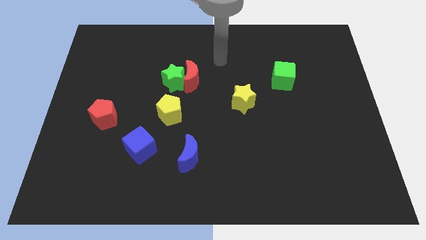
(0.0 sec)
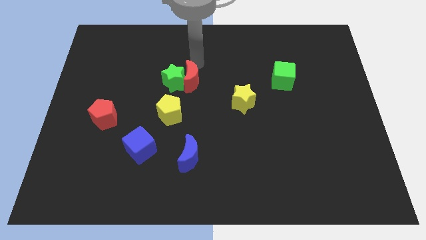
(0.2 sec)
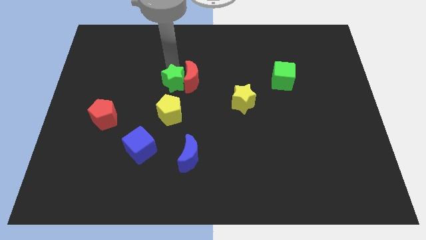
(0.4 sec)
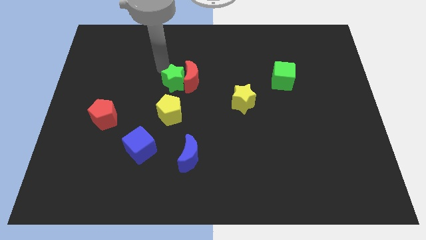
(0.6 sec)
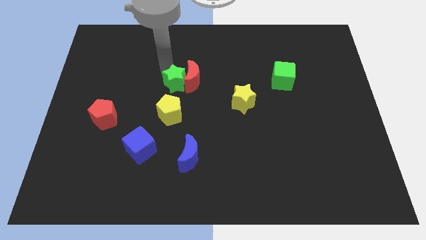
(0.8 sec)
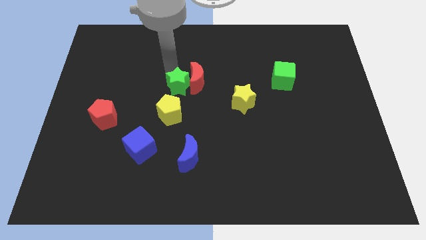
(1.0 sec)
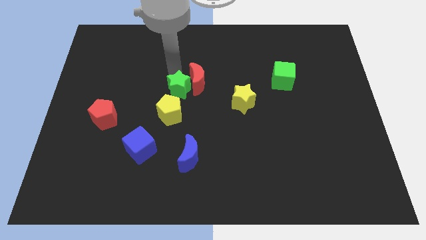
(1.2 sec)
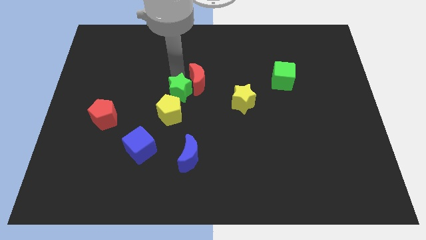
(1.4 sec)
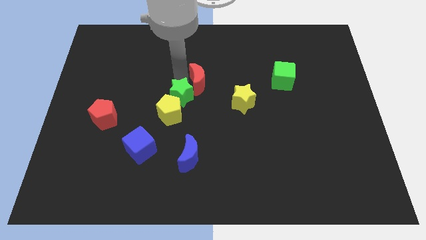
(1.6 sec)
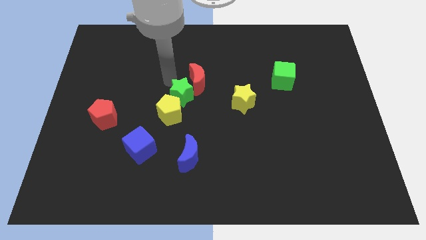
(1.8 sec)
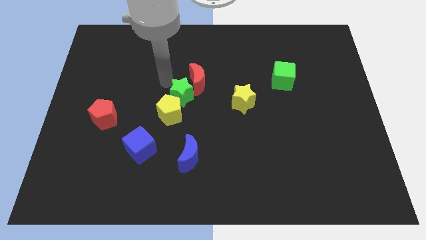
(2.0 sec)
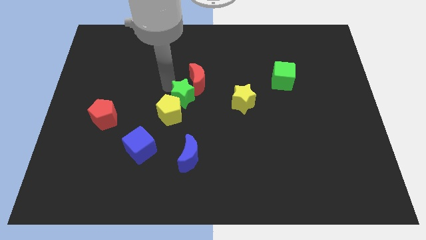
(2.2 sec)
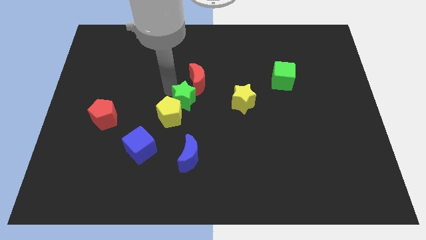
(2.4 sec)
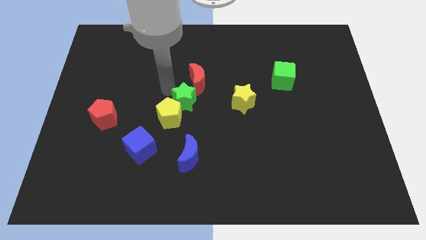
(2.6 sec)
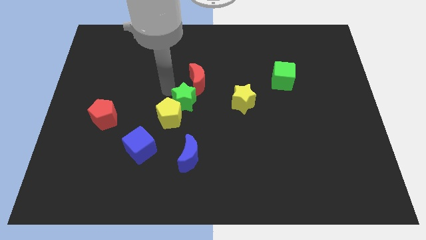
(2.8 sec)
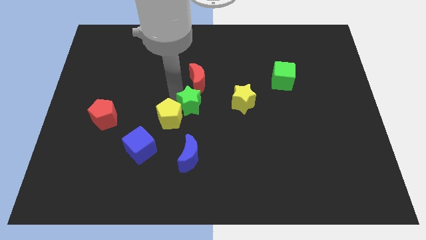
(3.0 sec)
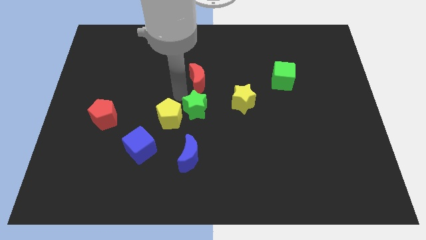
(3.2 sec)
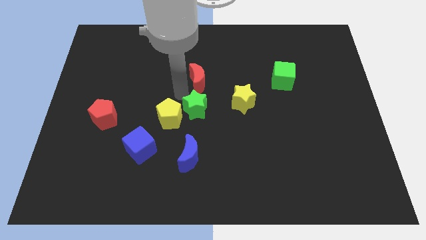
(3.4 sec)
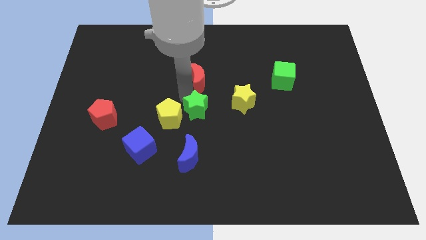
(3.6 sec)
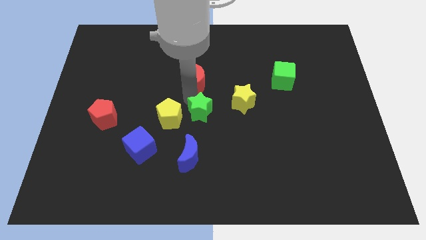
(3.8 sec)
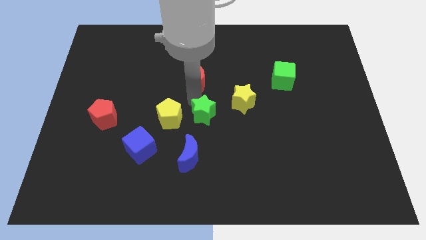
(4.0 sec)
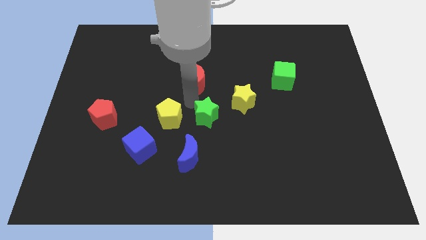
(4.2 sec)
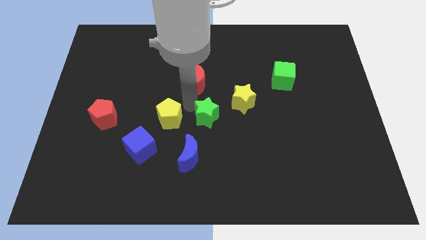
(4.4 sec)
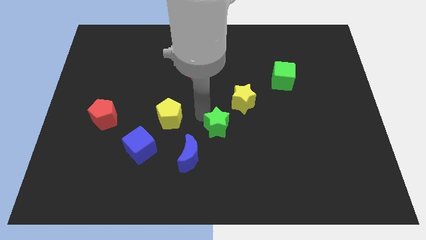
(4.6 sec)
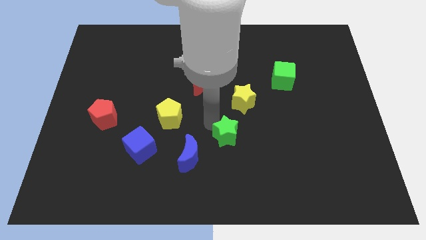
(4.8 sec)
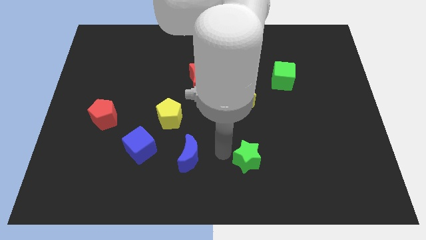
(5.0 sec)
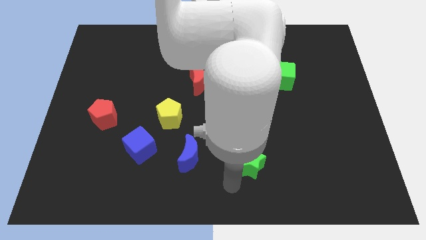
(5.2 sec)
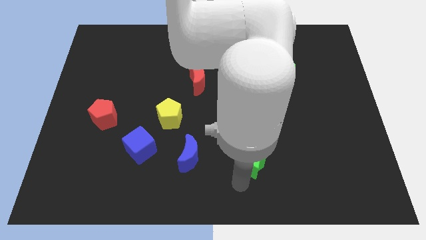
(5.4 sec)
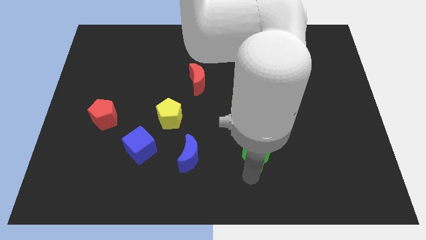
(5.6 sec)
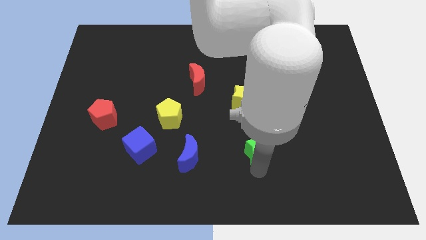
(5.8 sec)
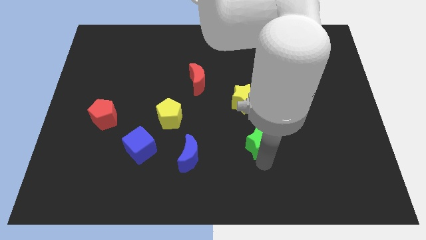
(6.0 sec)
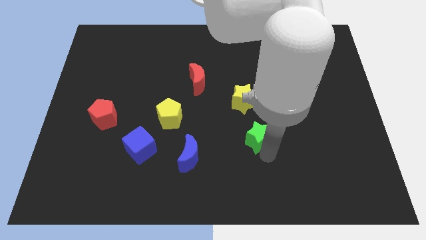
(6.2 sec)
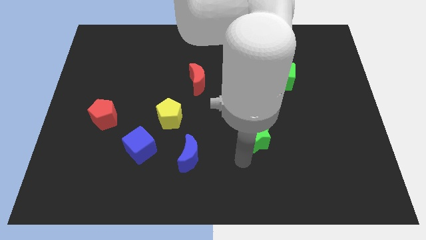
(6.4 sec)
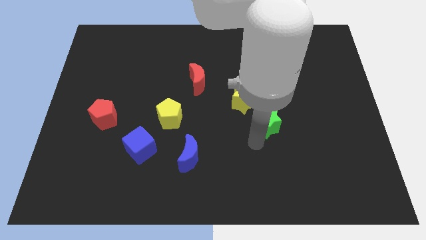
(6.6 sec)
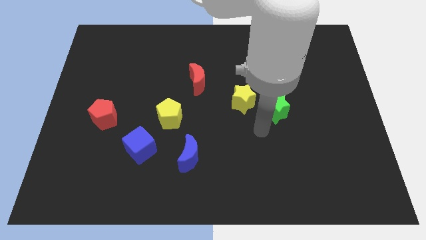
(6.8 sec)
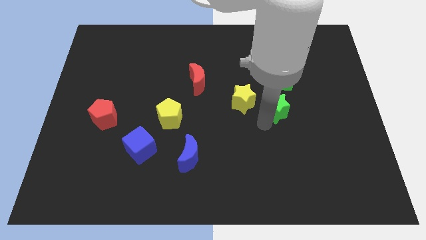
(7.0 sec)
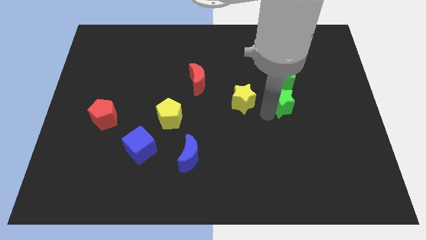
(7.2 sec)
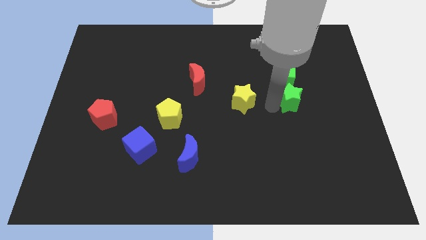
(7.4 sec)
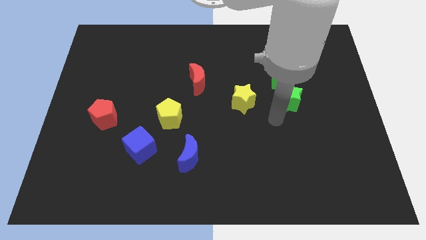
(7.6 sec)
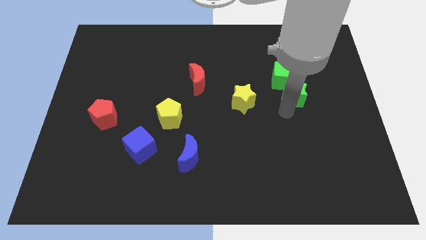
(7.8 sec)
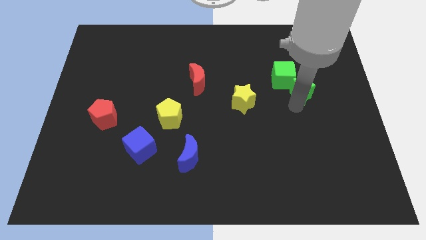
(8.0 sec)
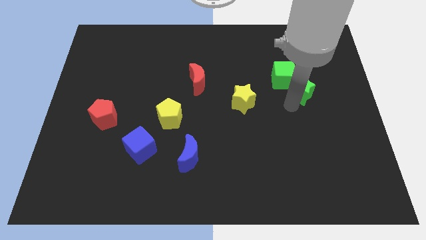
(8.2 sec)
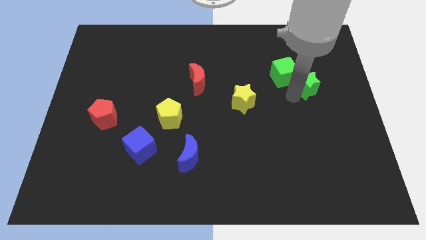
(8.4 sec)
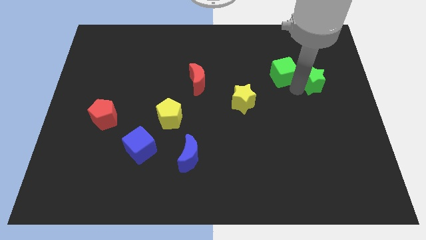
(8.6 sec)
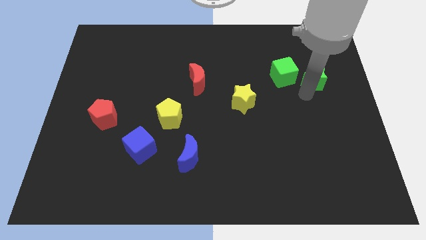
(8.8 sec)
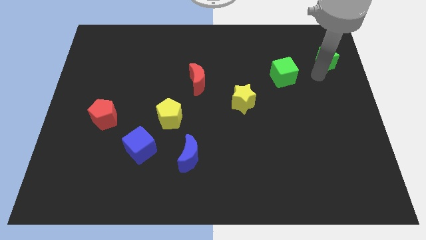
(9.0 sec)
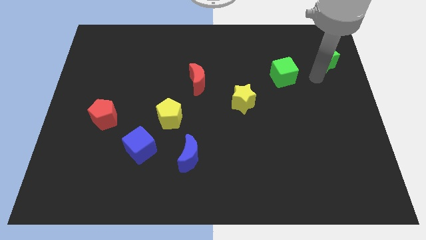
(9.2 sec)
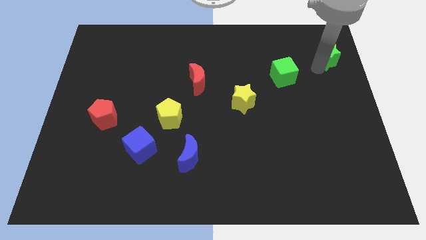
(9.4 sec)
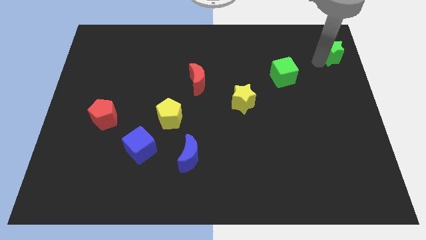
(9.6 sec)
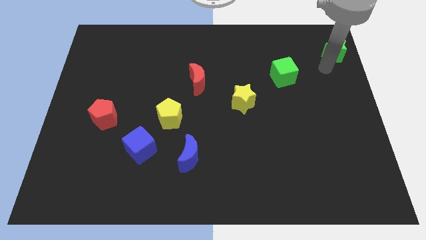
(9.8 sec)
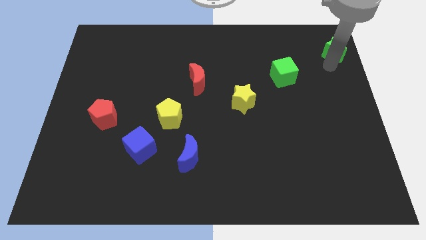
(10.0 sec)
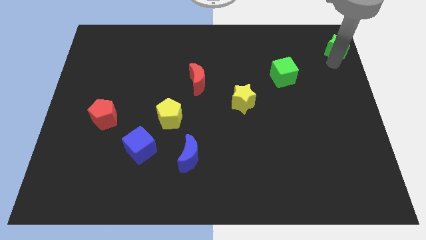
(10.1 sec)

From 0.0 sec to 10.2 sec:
slide the green star to the upper right corner

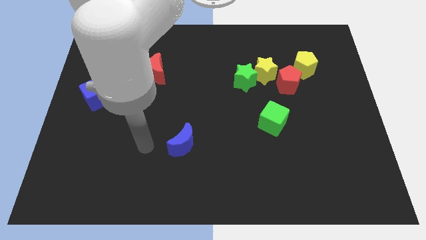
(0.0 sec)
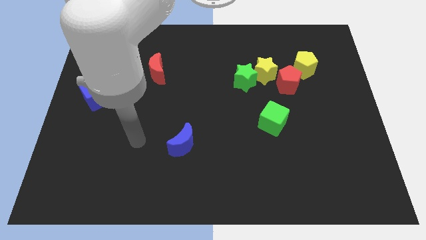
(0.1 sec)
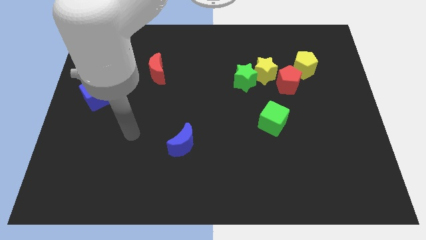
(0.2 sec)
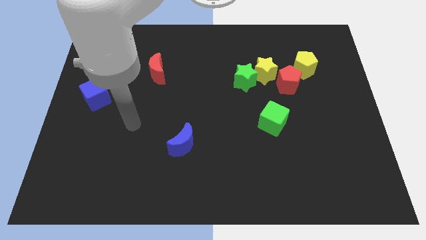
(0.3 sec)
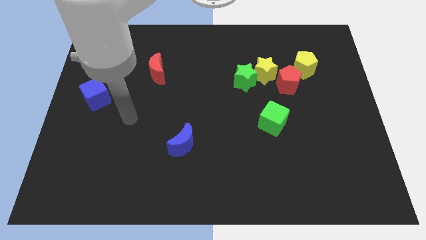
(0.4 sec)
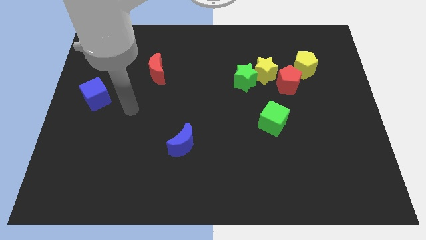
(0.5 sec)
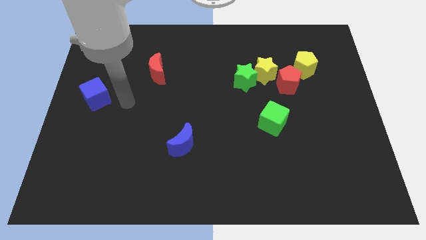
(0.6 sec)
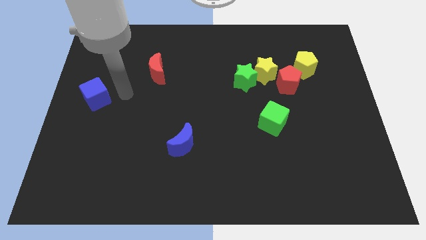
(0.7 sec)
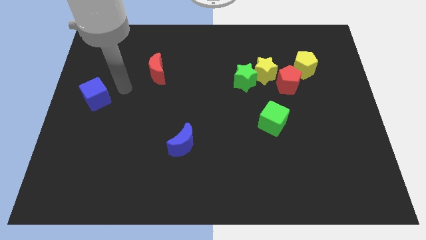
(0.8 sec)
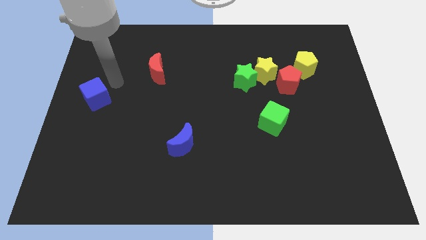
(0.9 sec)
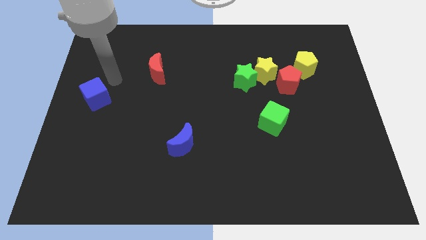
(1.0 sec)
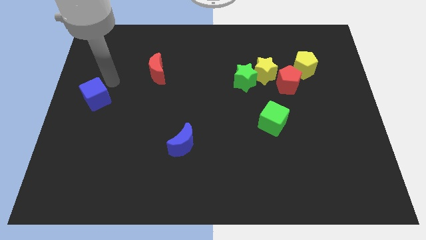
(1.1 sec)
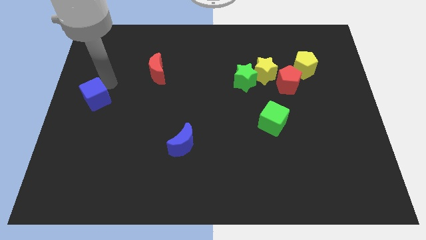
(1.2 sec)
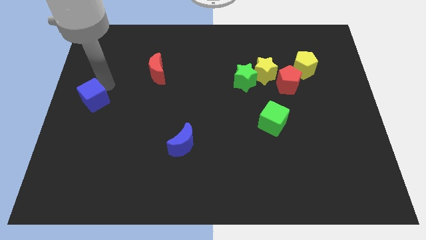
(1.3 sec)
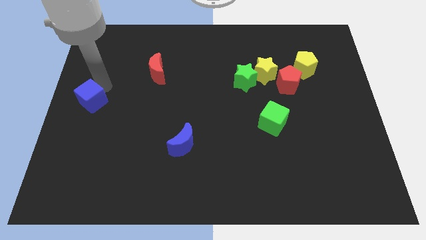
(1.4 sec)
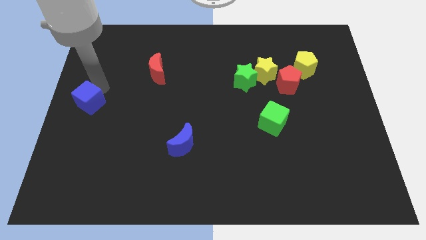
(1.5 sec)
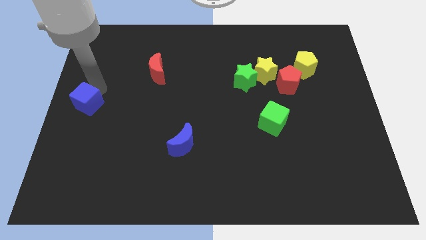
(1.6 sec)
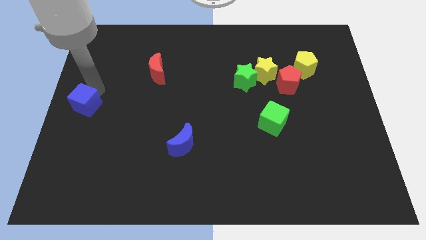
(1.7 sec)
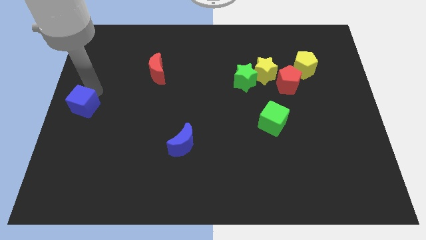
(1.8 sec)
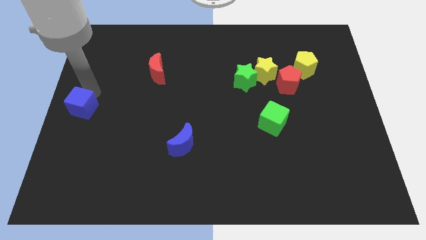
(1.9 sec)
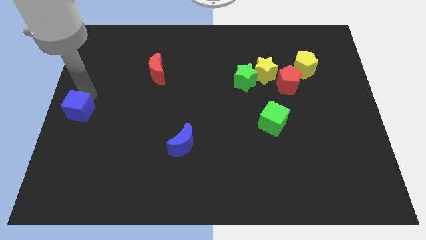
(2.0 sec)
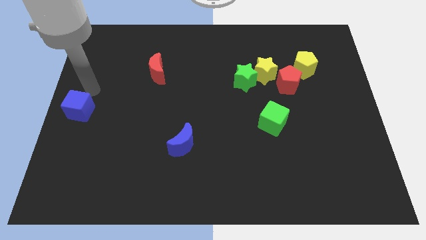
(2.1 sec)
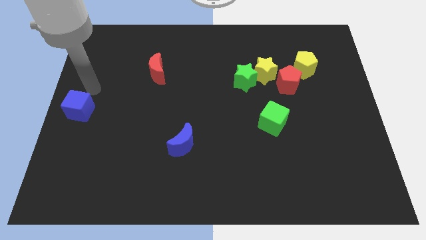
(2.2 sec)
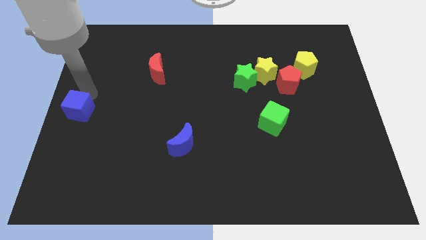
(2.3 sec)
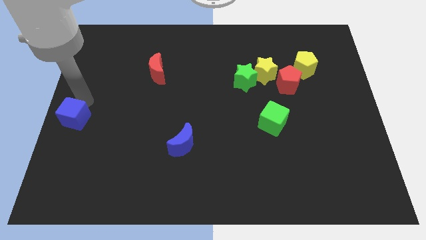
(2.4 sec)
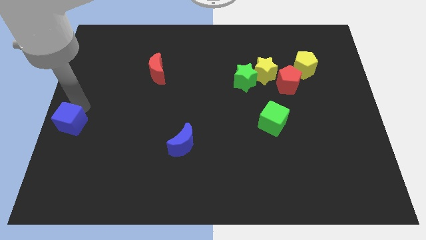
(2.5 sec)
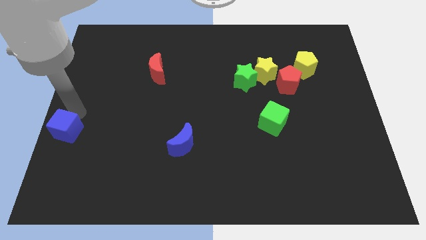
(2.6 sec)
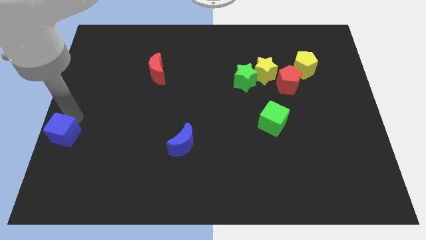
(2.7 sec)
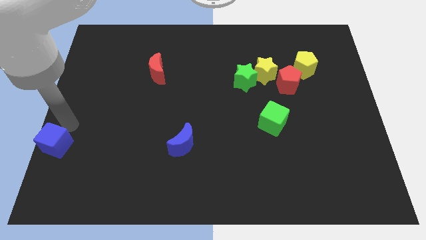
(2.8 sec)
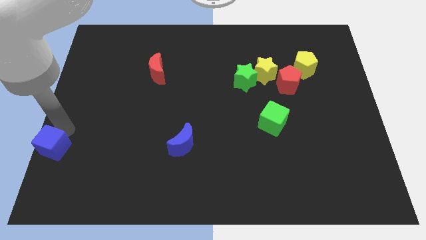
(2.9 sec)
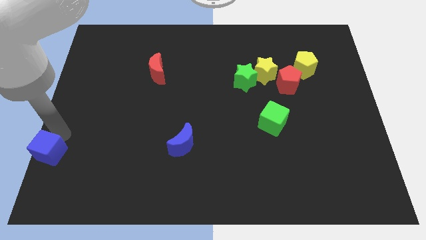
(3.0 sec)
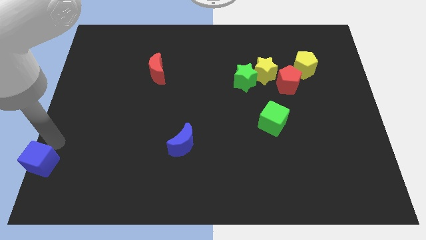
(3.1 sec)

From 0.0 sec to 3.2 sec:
move the blue cube to the bottom left of the board
